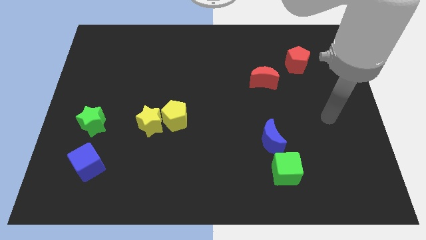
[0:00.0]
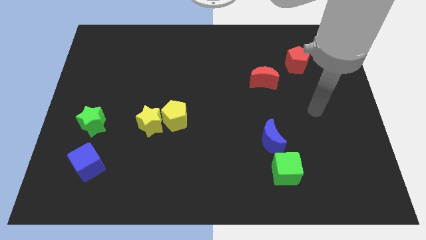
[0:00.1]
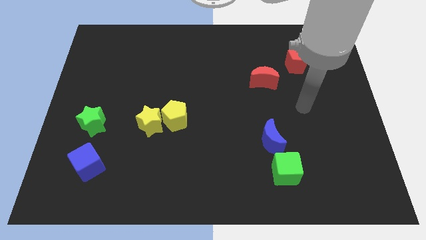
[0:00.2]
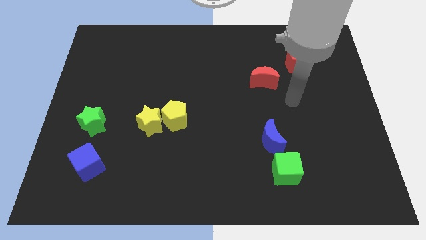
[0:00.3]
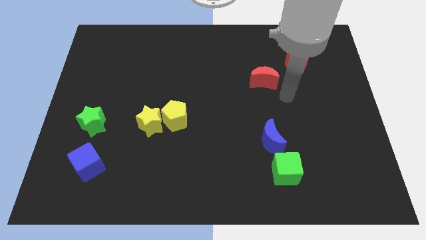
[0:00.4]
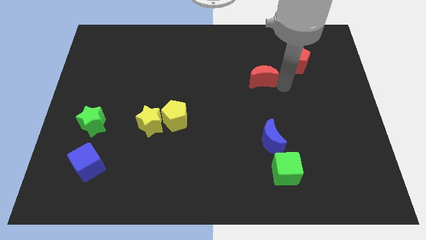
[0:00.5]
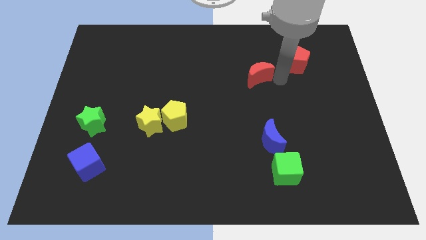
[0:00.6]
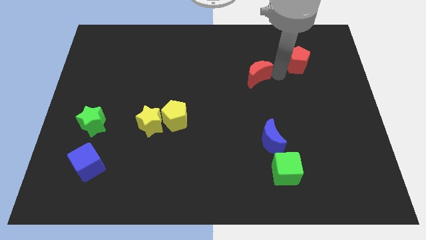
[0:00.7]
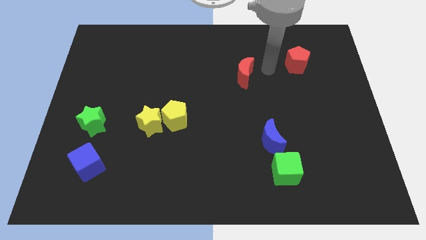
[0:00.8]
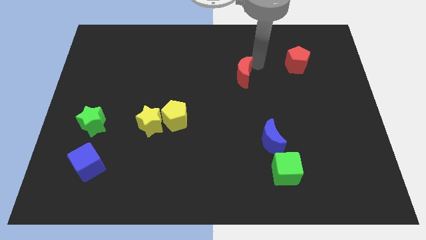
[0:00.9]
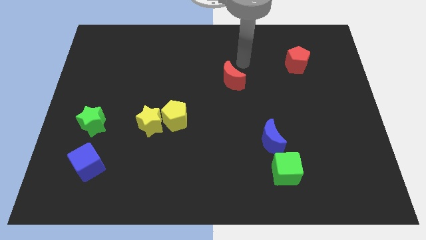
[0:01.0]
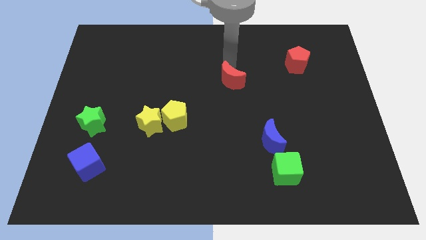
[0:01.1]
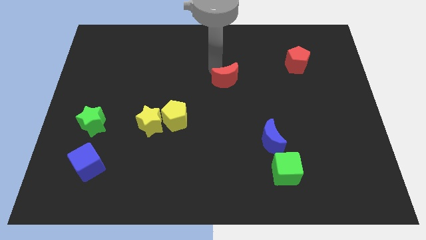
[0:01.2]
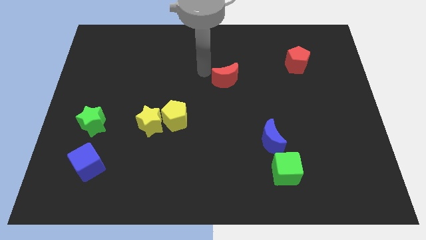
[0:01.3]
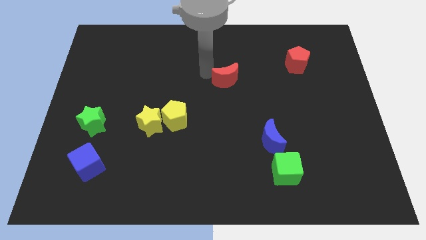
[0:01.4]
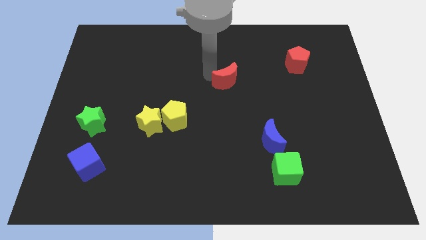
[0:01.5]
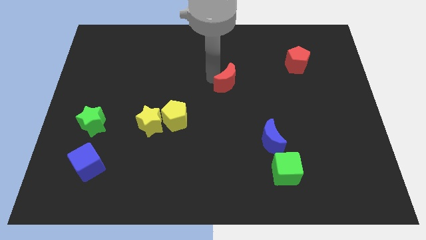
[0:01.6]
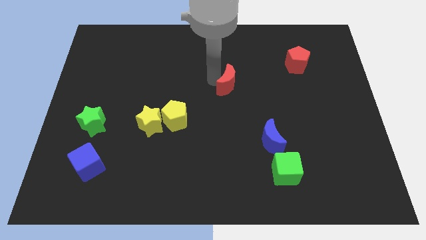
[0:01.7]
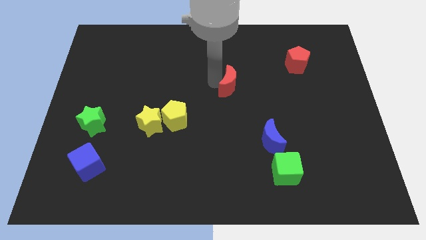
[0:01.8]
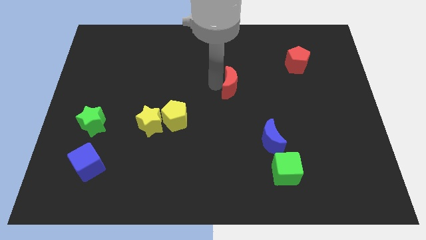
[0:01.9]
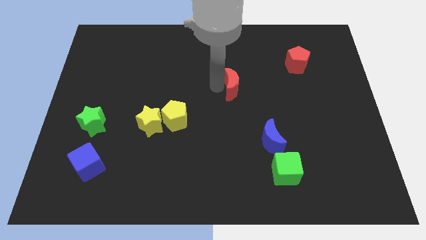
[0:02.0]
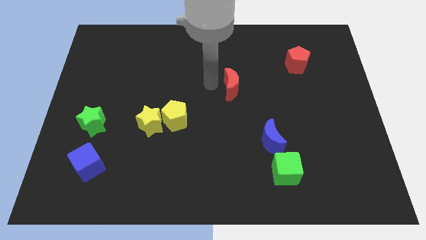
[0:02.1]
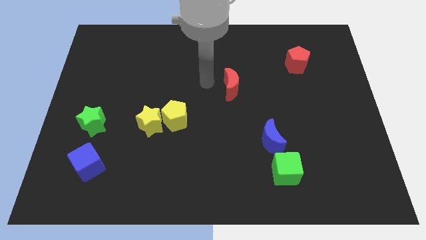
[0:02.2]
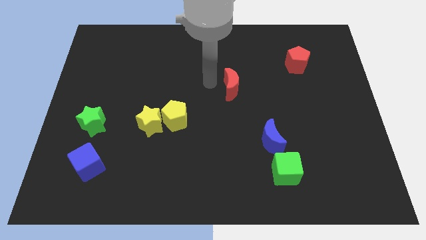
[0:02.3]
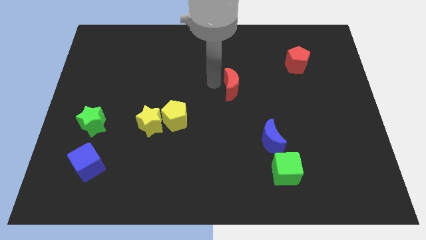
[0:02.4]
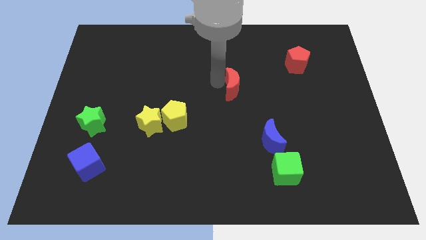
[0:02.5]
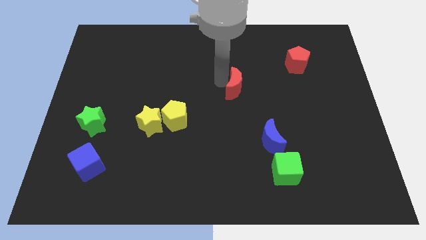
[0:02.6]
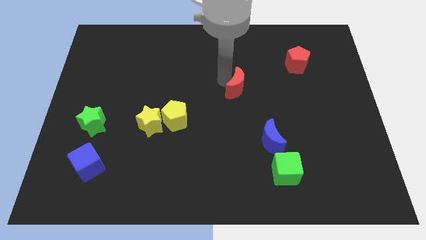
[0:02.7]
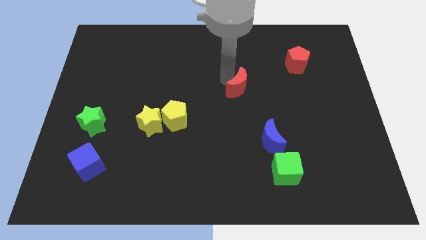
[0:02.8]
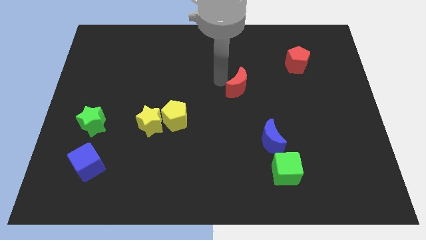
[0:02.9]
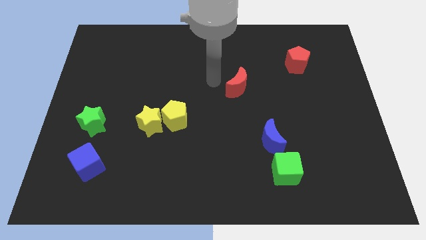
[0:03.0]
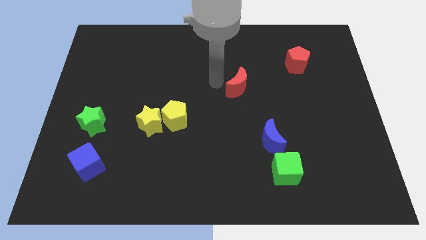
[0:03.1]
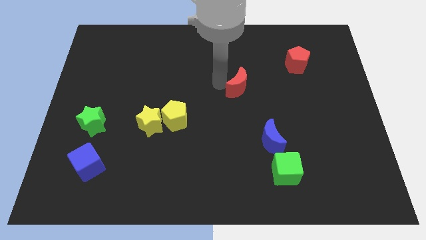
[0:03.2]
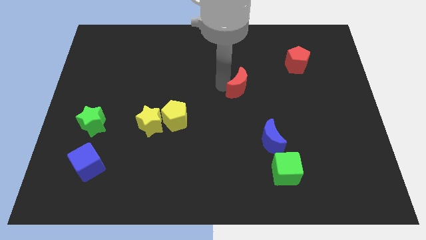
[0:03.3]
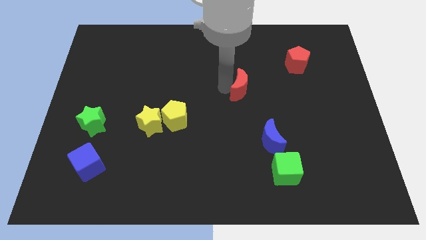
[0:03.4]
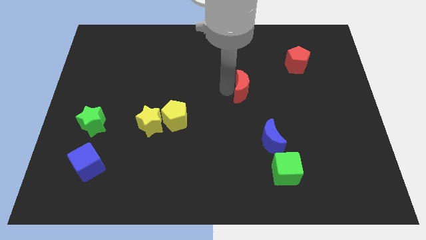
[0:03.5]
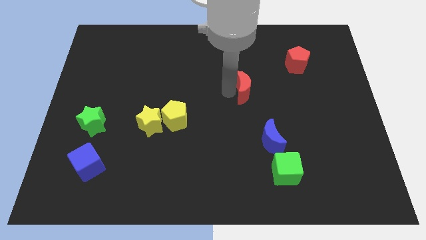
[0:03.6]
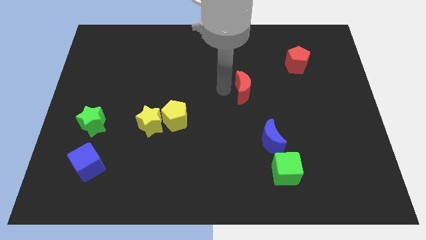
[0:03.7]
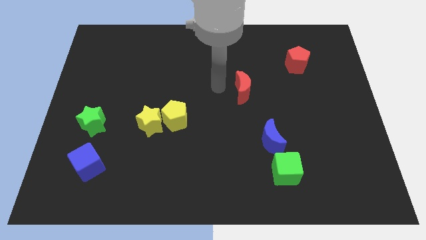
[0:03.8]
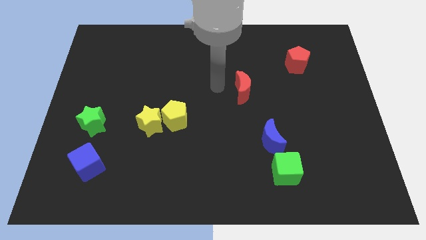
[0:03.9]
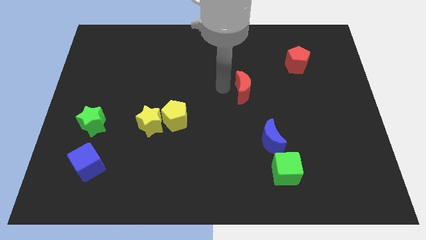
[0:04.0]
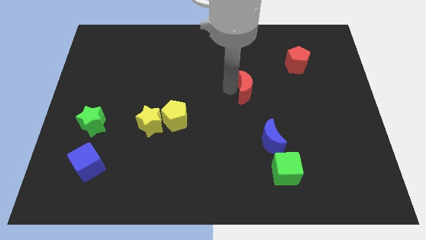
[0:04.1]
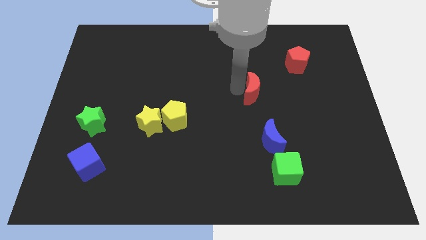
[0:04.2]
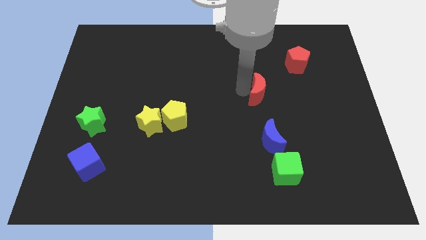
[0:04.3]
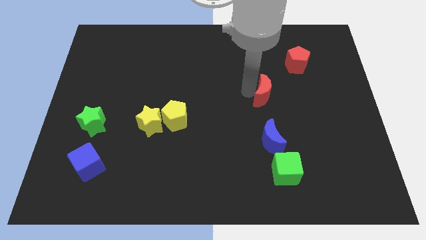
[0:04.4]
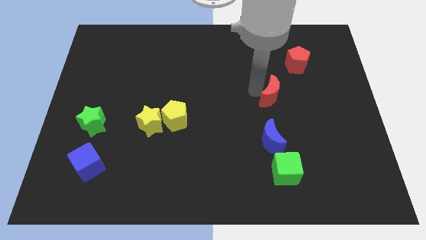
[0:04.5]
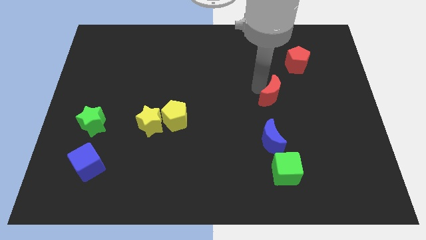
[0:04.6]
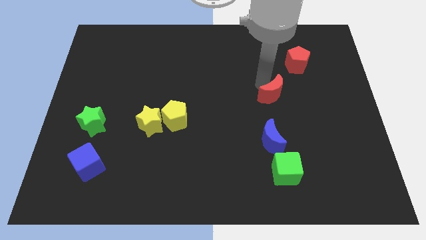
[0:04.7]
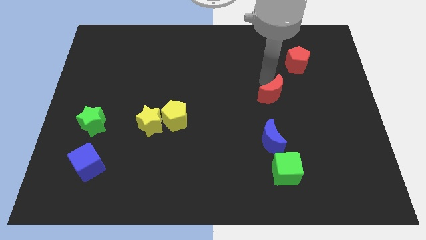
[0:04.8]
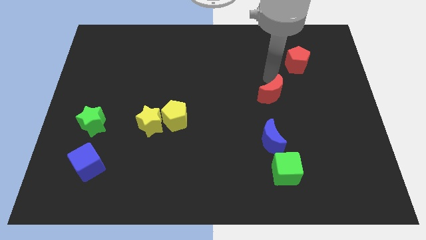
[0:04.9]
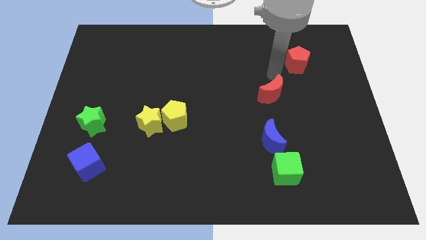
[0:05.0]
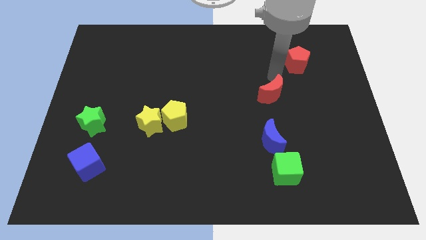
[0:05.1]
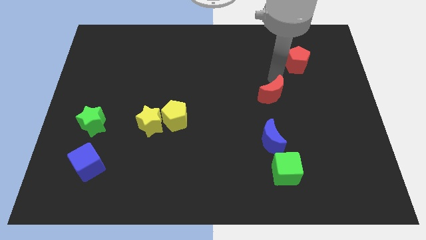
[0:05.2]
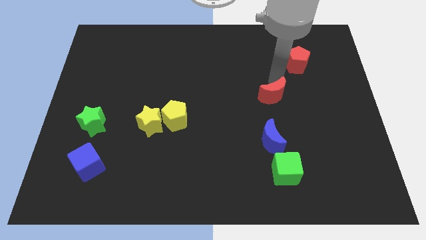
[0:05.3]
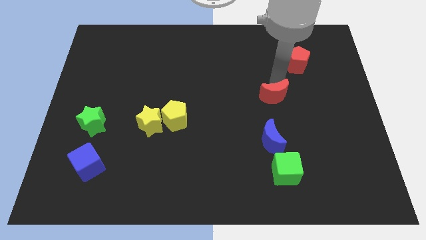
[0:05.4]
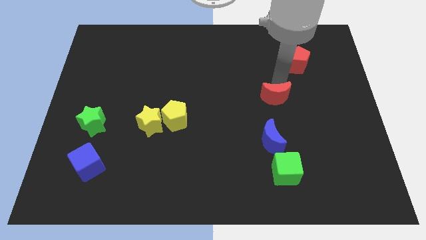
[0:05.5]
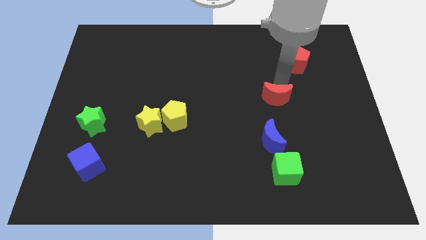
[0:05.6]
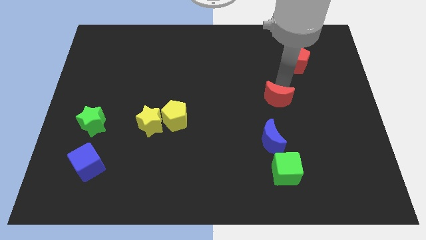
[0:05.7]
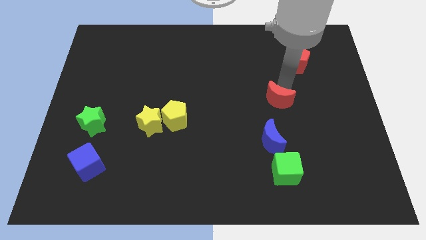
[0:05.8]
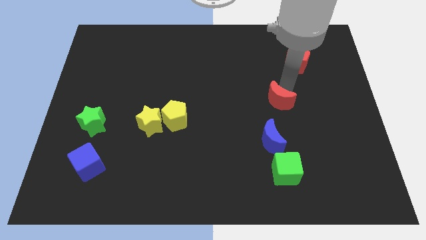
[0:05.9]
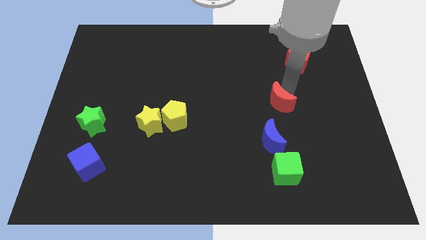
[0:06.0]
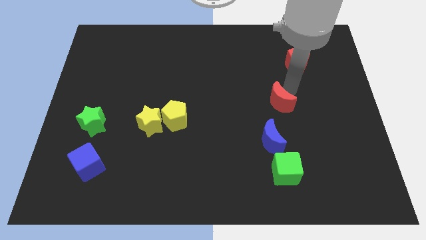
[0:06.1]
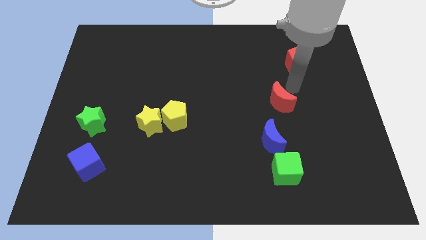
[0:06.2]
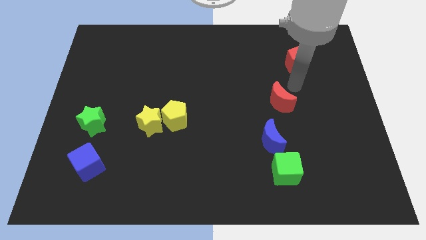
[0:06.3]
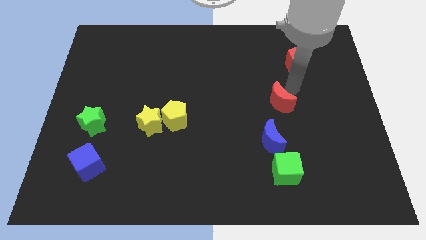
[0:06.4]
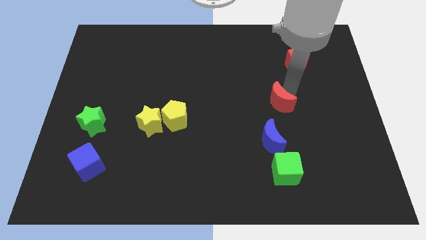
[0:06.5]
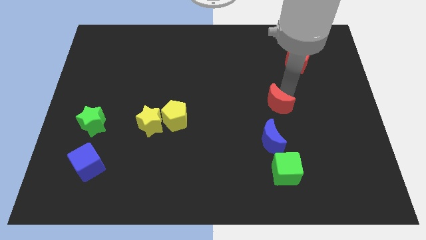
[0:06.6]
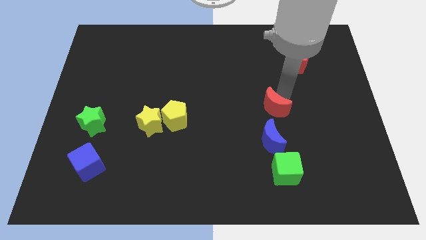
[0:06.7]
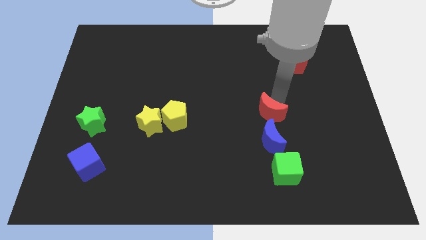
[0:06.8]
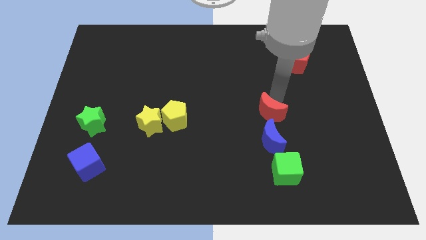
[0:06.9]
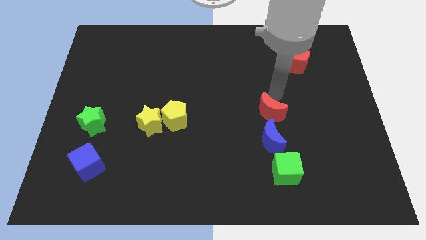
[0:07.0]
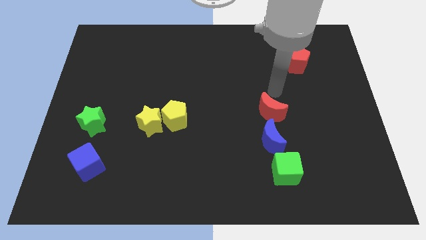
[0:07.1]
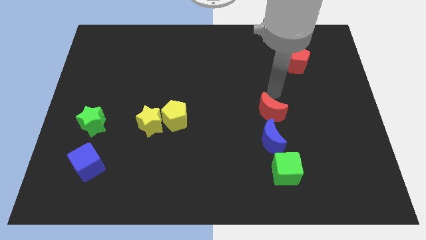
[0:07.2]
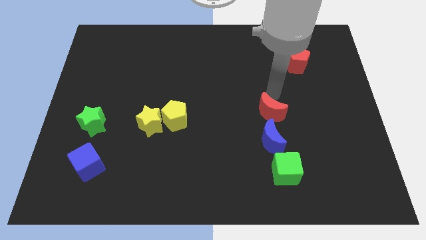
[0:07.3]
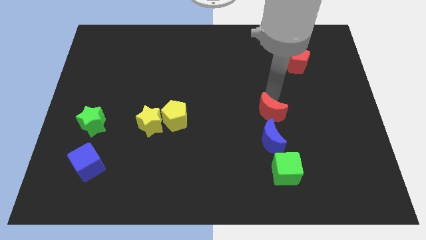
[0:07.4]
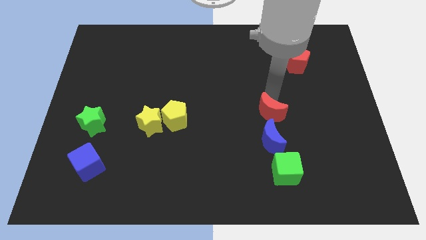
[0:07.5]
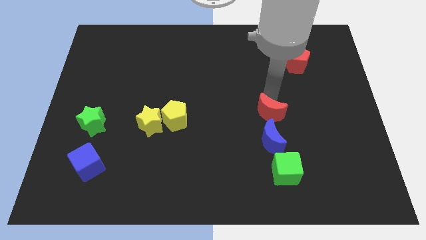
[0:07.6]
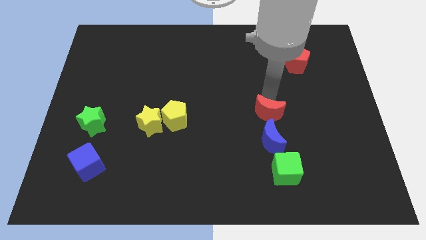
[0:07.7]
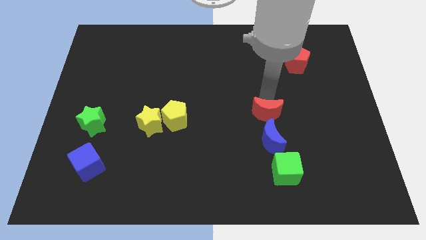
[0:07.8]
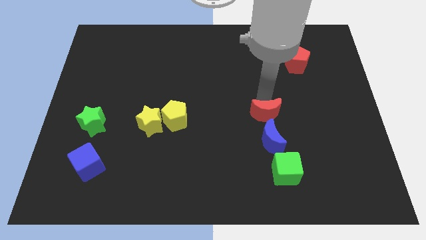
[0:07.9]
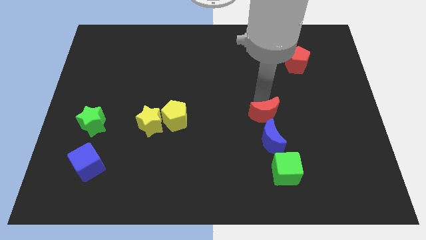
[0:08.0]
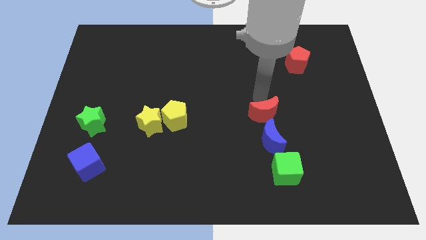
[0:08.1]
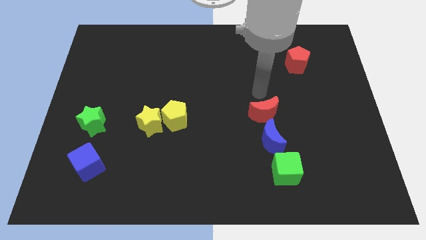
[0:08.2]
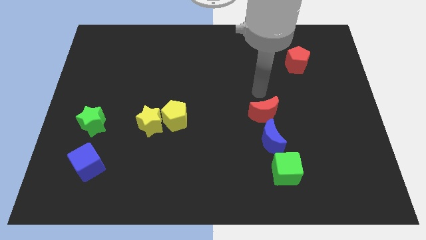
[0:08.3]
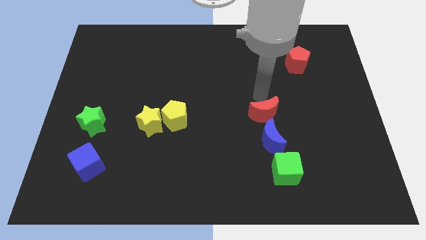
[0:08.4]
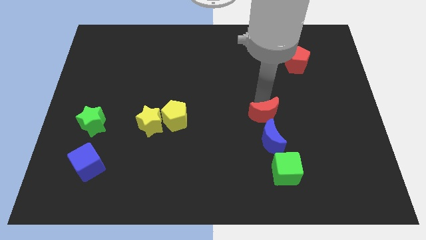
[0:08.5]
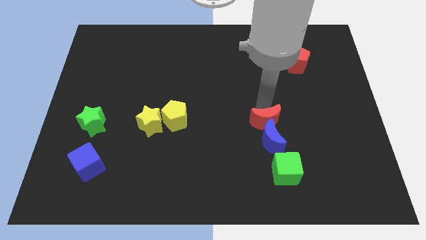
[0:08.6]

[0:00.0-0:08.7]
put the red moon towards the blue moon
